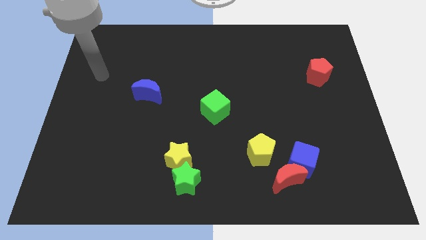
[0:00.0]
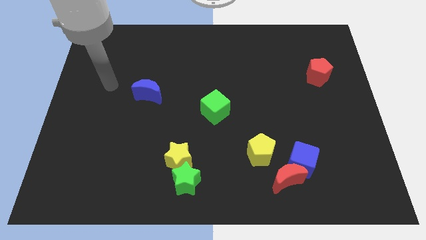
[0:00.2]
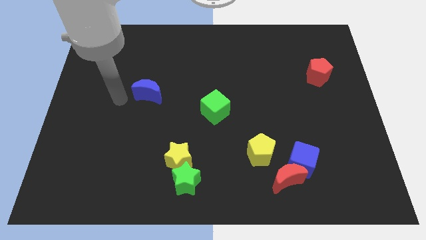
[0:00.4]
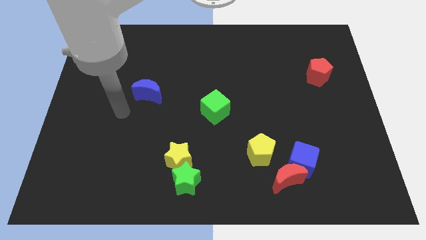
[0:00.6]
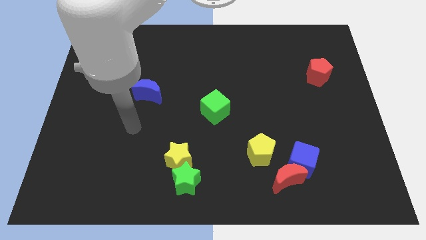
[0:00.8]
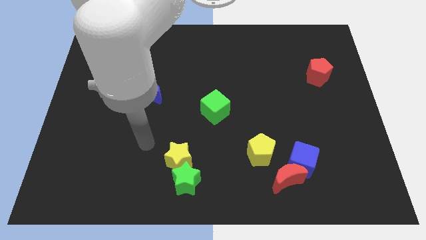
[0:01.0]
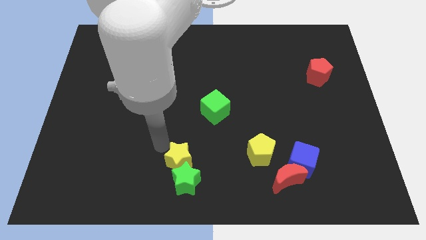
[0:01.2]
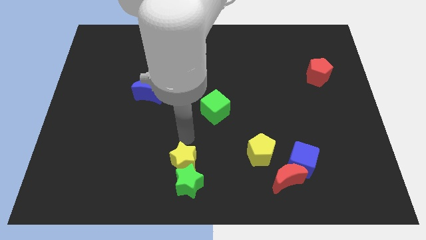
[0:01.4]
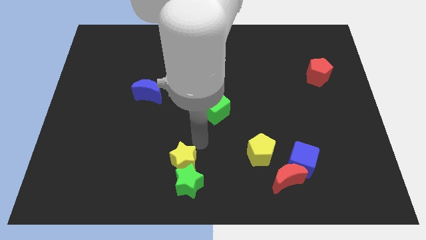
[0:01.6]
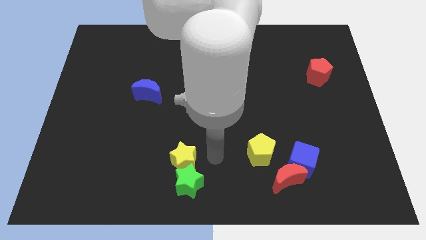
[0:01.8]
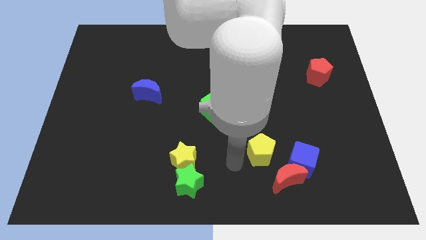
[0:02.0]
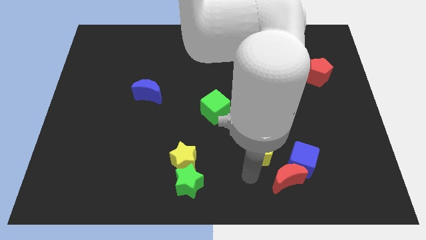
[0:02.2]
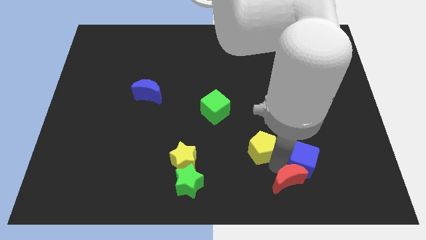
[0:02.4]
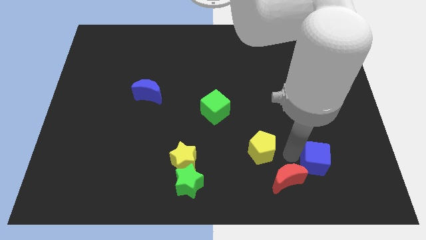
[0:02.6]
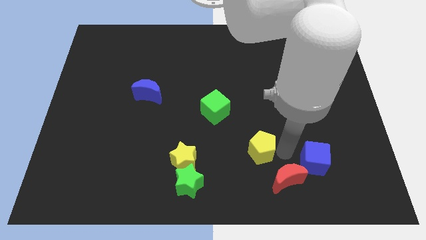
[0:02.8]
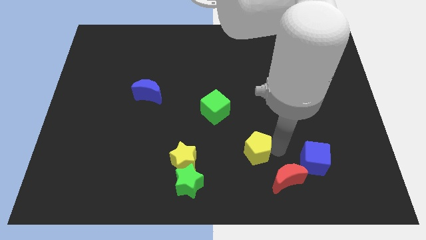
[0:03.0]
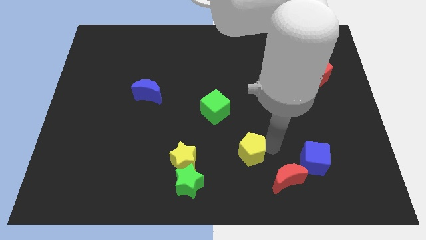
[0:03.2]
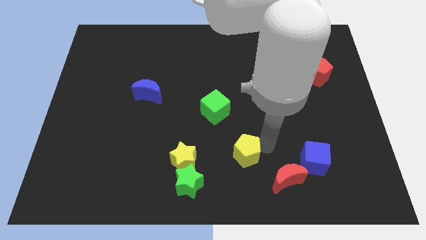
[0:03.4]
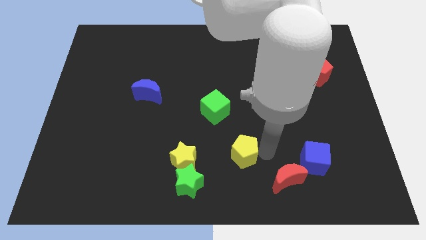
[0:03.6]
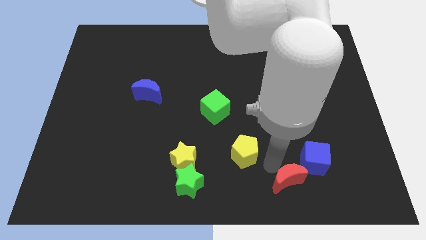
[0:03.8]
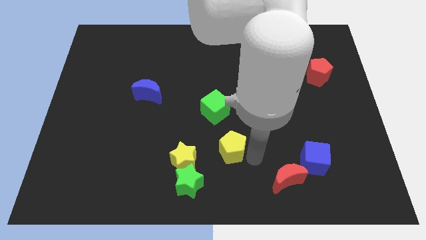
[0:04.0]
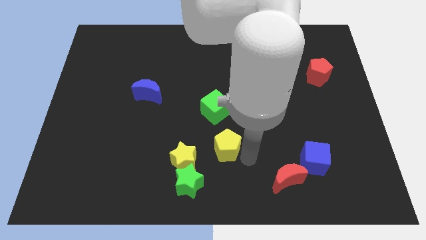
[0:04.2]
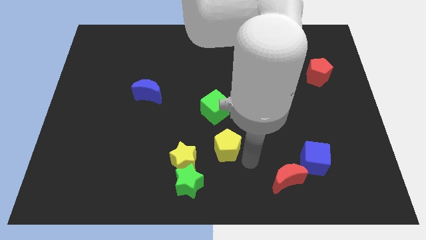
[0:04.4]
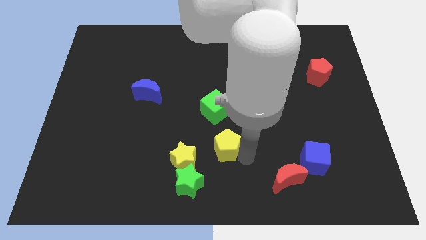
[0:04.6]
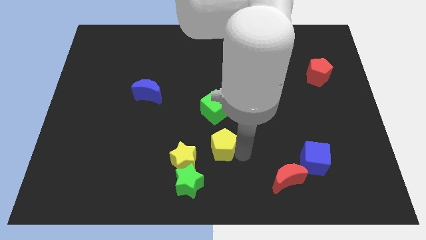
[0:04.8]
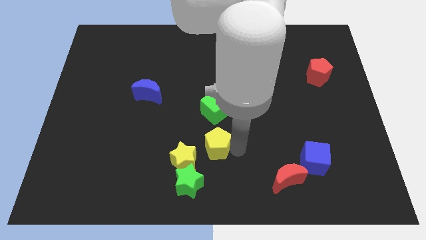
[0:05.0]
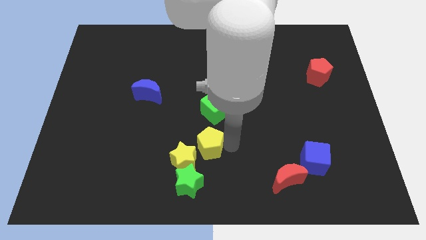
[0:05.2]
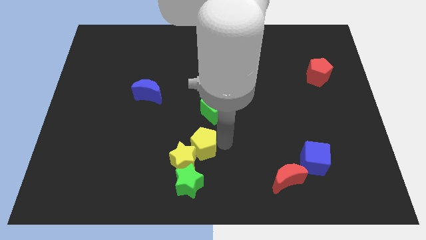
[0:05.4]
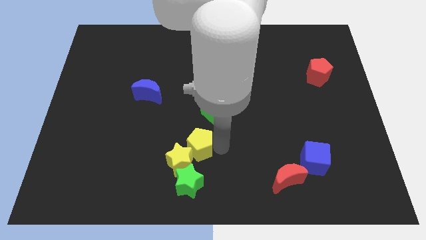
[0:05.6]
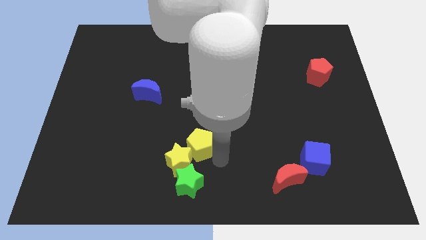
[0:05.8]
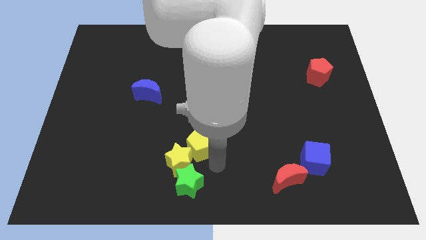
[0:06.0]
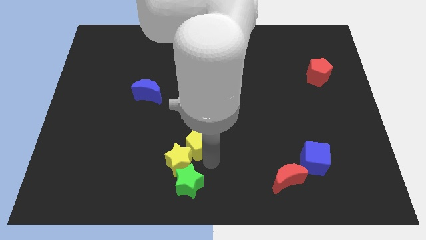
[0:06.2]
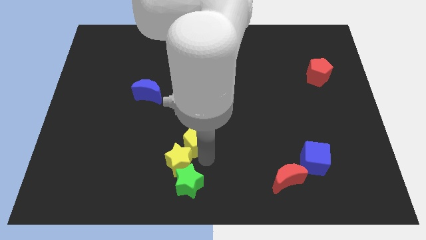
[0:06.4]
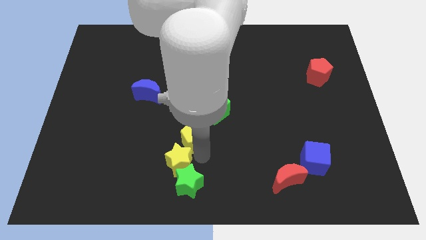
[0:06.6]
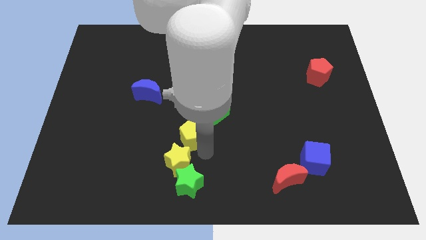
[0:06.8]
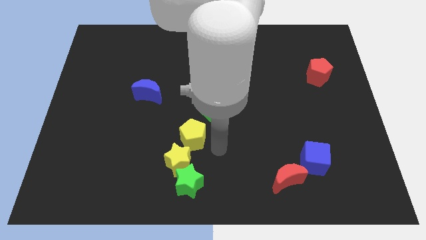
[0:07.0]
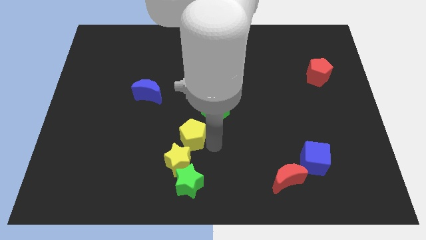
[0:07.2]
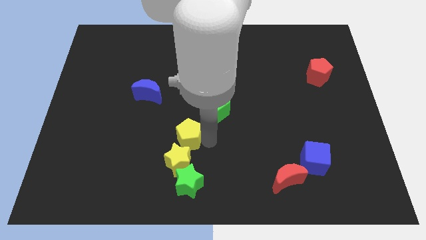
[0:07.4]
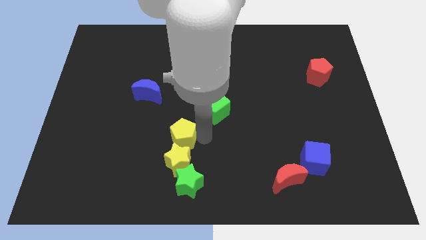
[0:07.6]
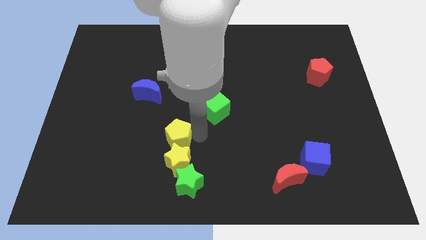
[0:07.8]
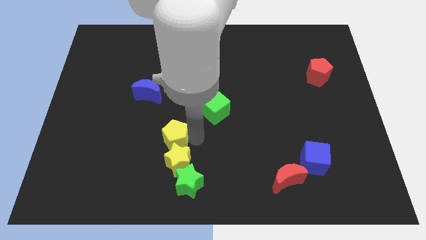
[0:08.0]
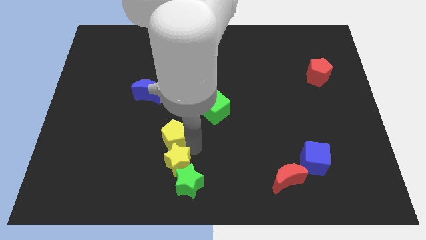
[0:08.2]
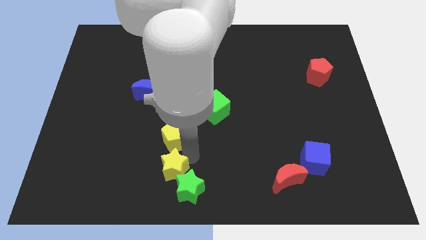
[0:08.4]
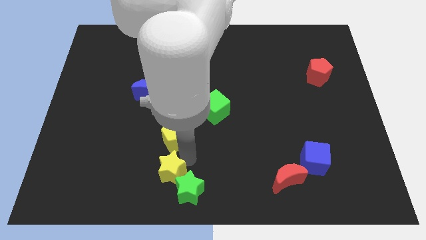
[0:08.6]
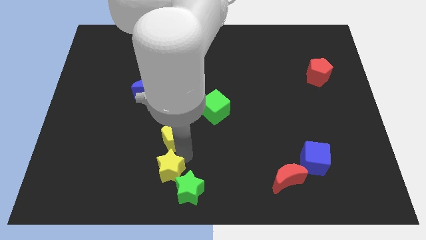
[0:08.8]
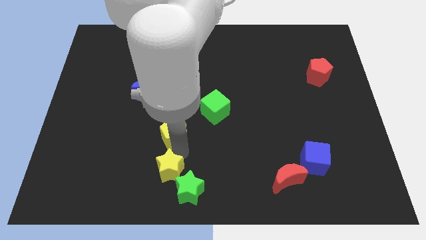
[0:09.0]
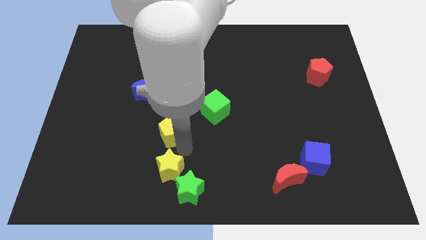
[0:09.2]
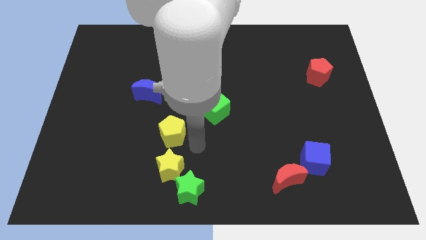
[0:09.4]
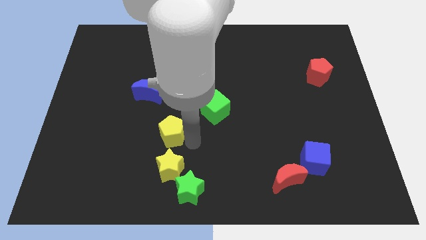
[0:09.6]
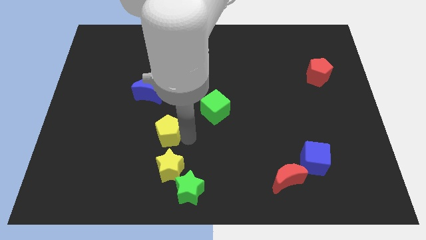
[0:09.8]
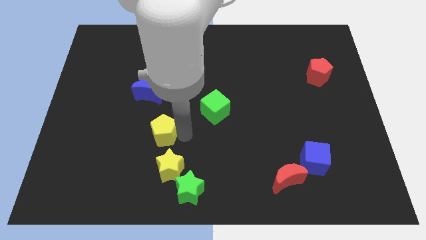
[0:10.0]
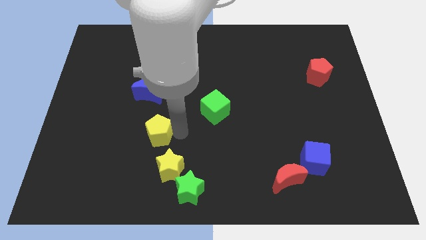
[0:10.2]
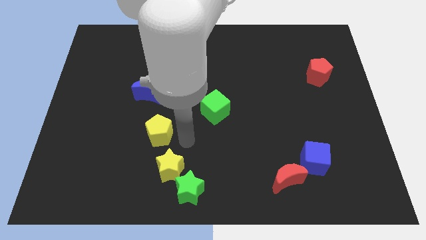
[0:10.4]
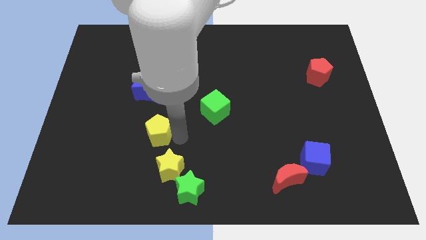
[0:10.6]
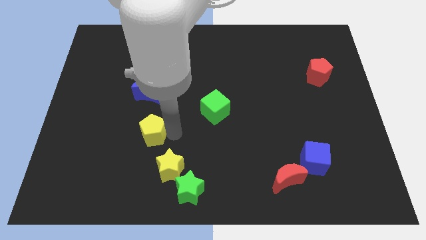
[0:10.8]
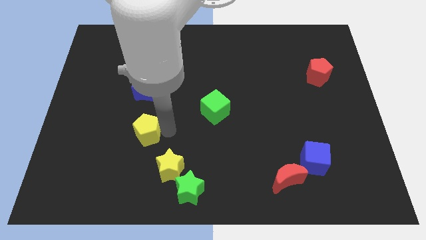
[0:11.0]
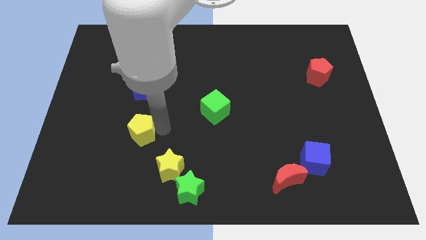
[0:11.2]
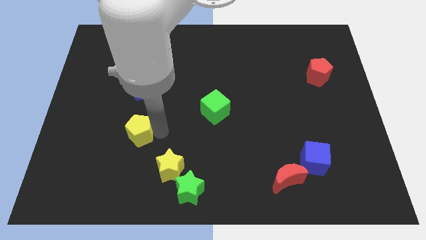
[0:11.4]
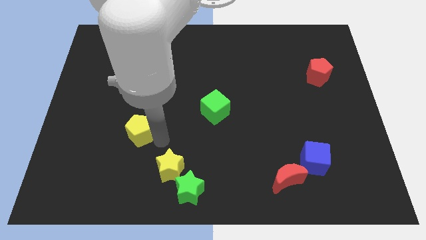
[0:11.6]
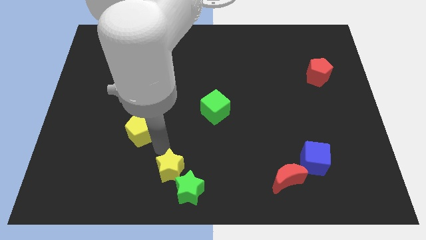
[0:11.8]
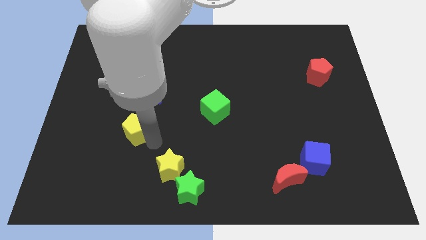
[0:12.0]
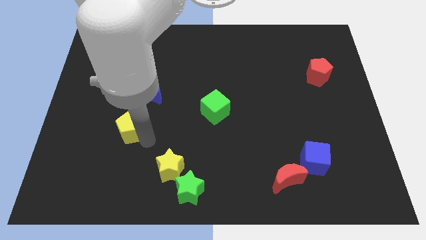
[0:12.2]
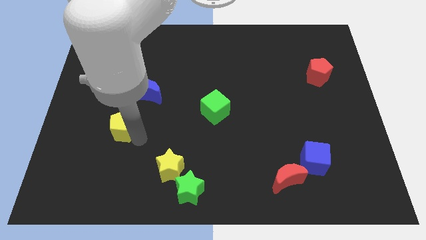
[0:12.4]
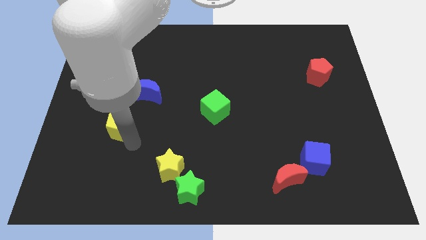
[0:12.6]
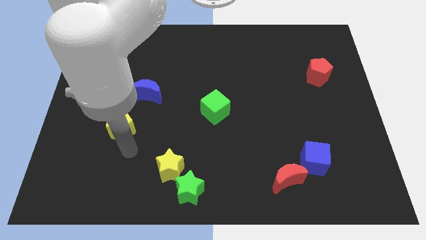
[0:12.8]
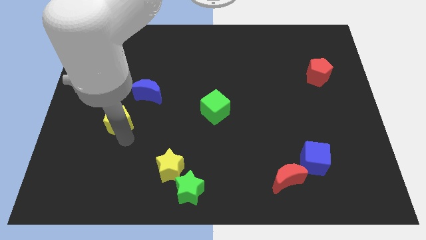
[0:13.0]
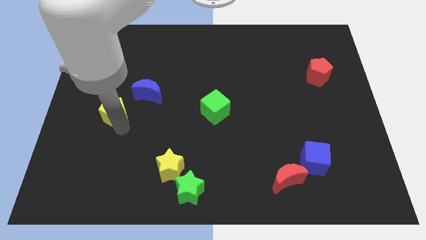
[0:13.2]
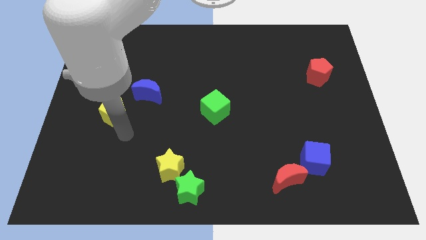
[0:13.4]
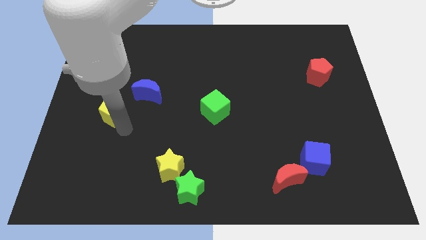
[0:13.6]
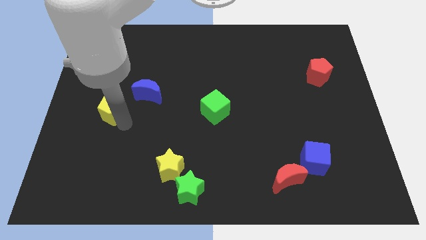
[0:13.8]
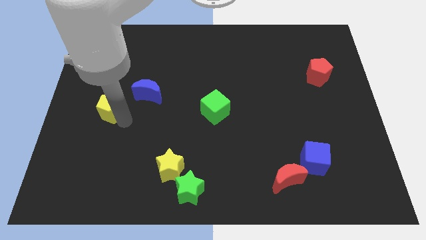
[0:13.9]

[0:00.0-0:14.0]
slide the yellow pentagon to the left side of the blue moon

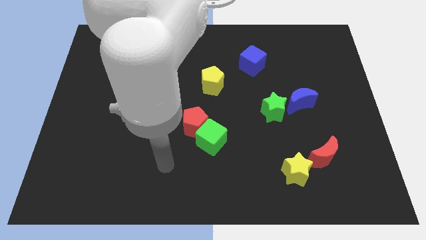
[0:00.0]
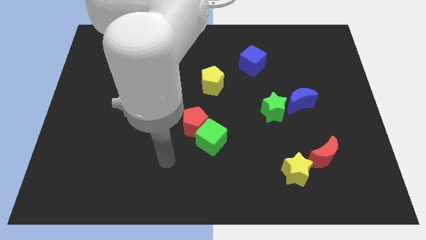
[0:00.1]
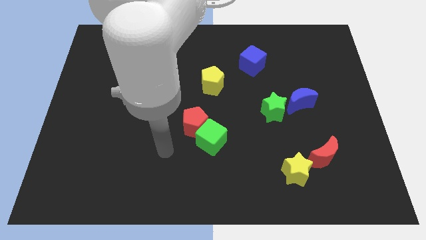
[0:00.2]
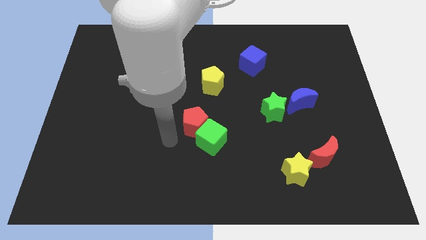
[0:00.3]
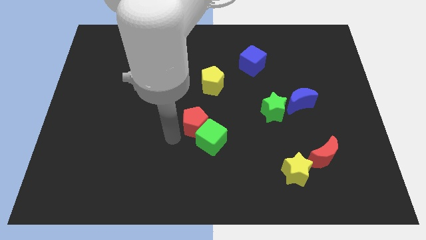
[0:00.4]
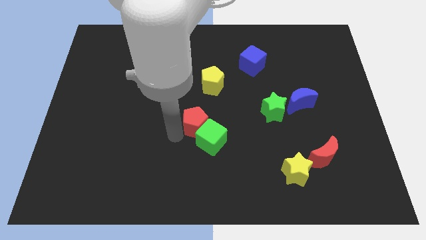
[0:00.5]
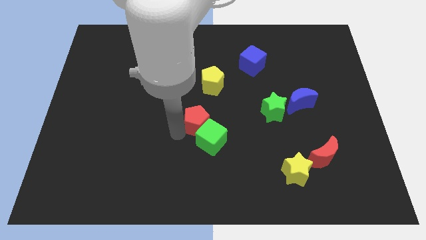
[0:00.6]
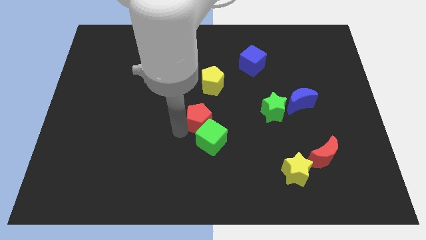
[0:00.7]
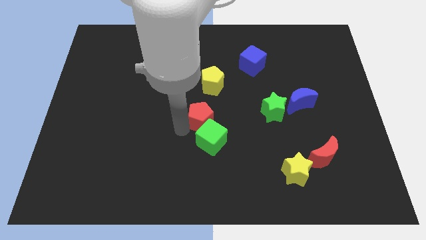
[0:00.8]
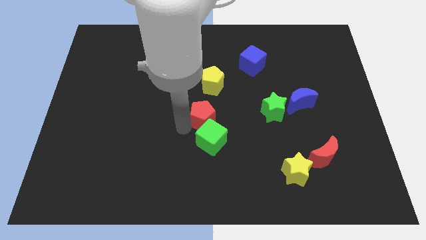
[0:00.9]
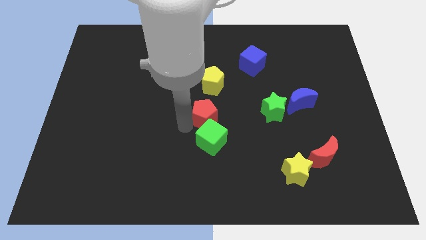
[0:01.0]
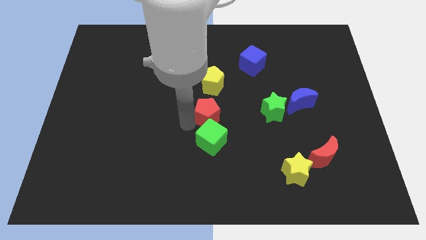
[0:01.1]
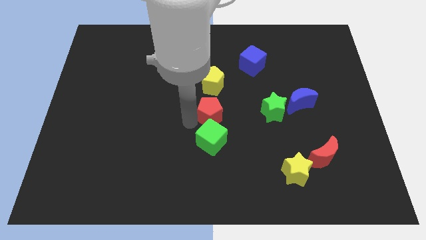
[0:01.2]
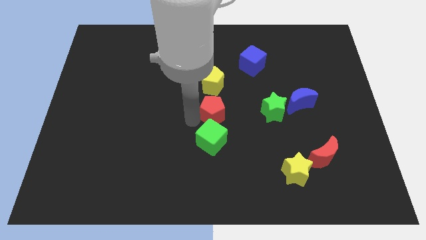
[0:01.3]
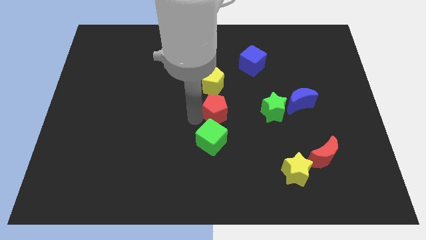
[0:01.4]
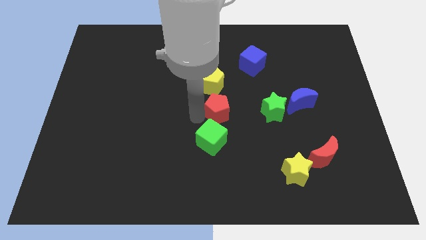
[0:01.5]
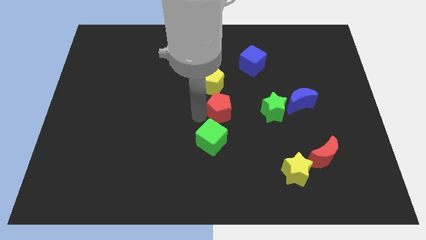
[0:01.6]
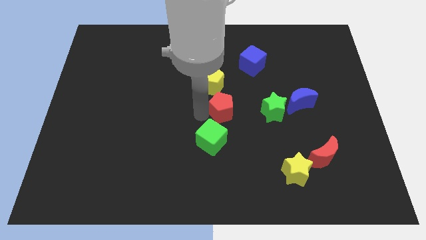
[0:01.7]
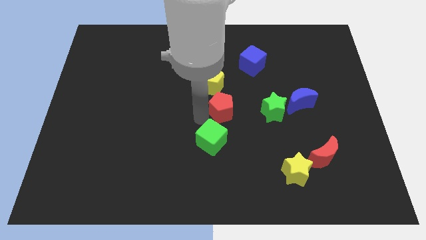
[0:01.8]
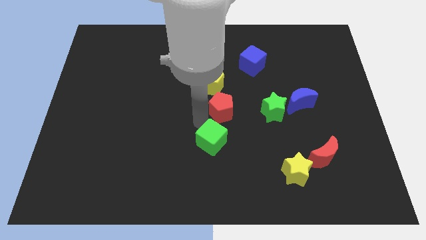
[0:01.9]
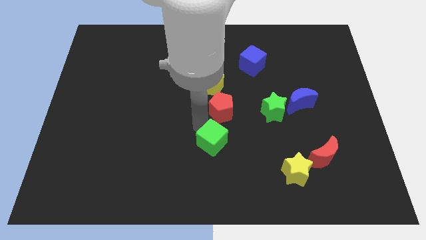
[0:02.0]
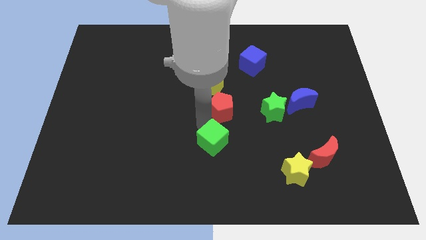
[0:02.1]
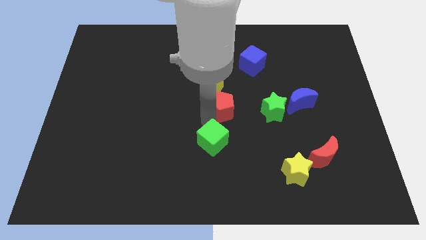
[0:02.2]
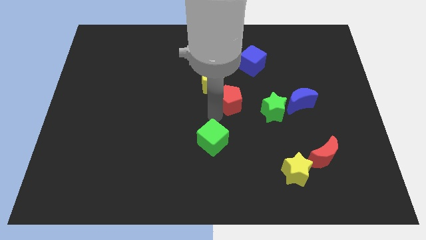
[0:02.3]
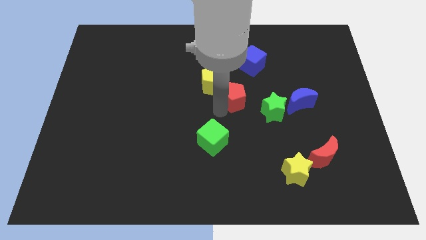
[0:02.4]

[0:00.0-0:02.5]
push the red pentagon to the top left of the green star
